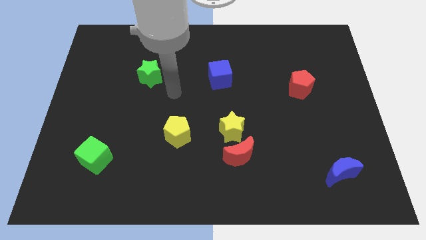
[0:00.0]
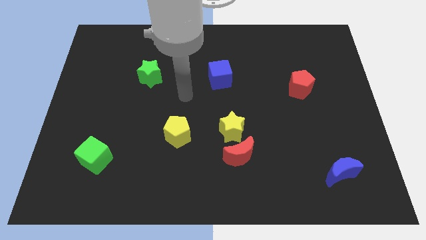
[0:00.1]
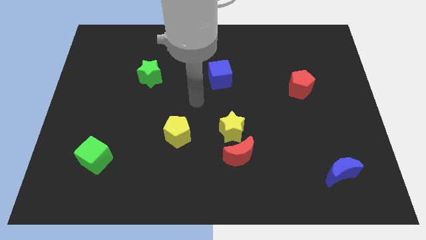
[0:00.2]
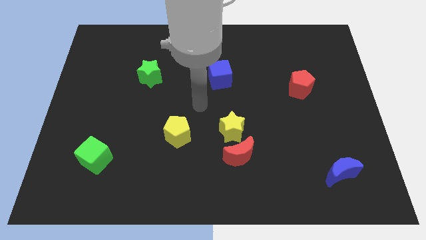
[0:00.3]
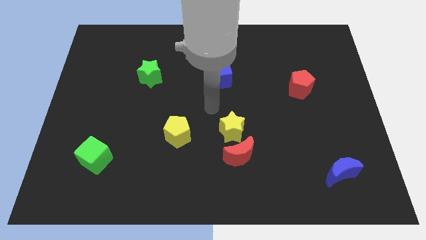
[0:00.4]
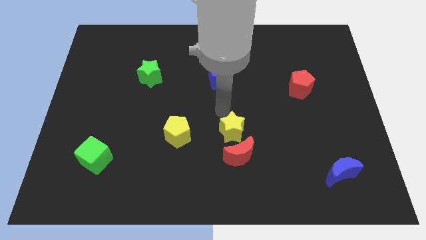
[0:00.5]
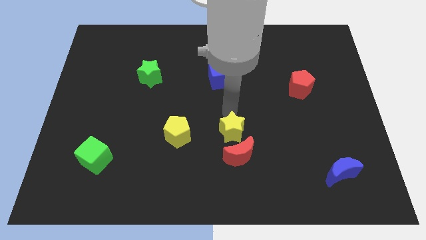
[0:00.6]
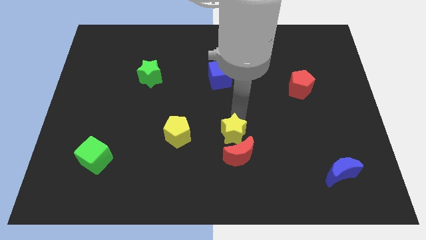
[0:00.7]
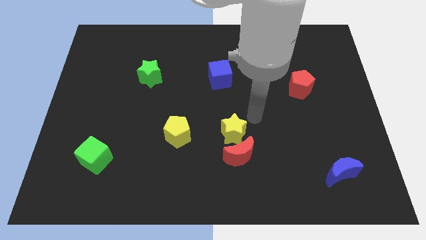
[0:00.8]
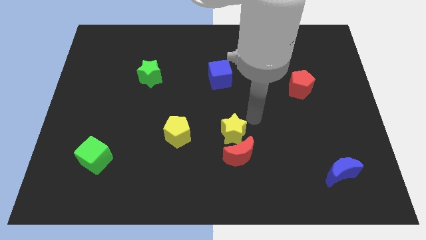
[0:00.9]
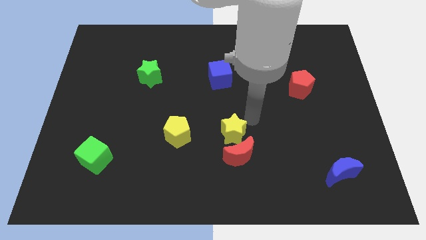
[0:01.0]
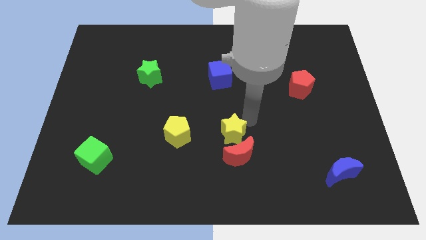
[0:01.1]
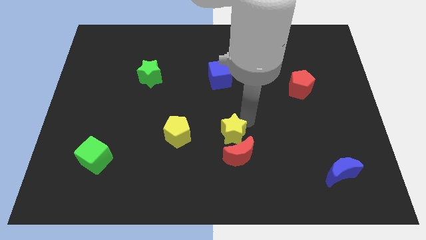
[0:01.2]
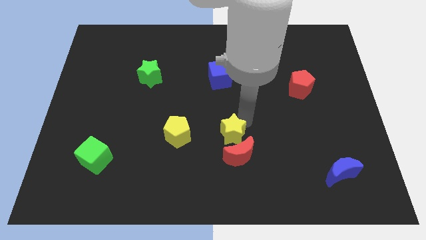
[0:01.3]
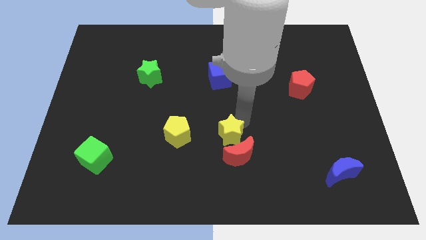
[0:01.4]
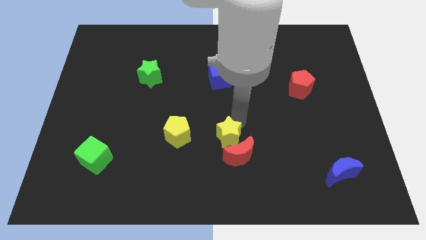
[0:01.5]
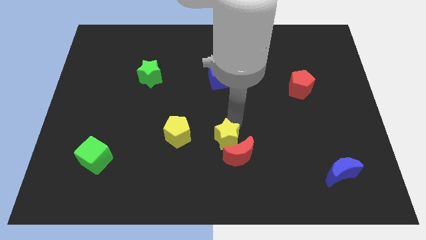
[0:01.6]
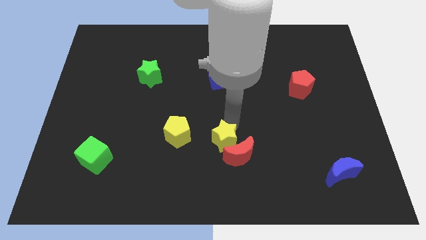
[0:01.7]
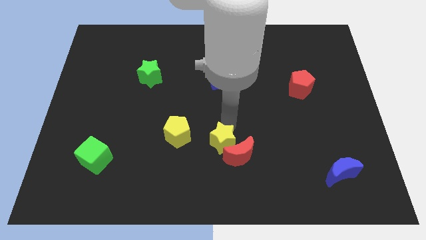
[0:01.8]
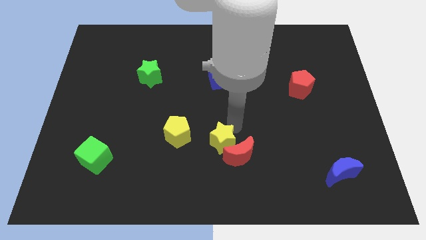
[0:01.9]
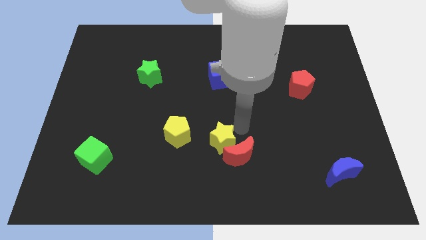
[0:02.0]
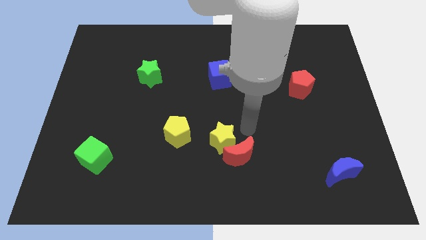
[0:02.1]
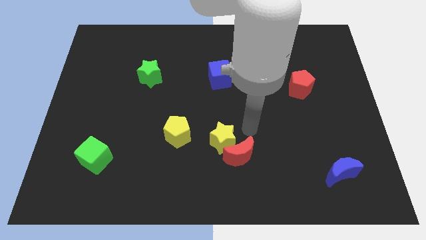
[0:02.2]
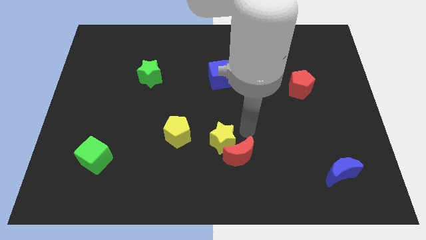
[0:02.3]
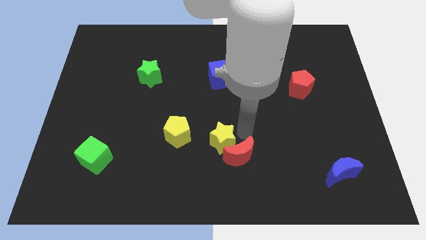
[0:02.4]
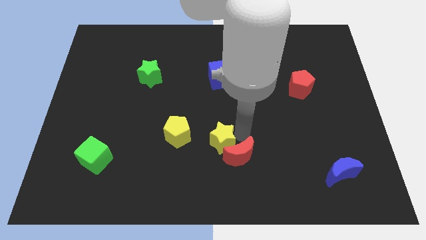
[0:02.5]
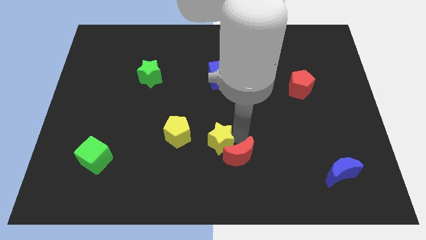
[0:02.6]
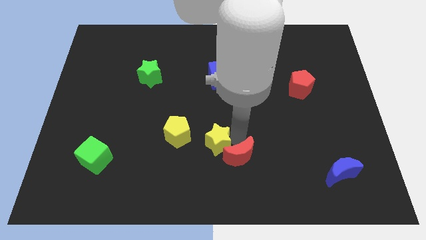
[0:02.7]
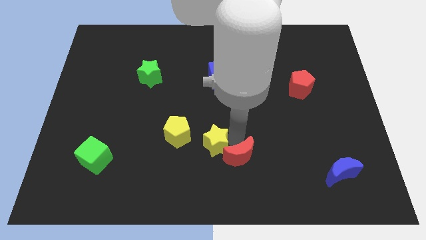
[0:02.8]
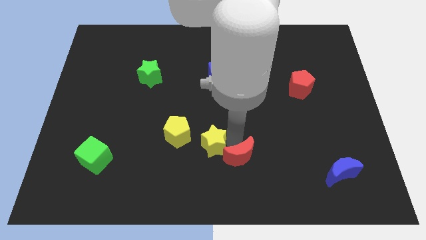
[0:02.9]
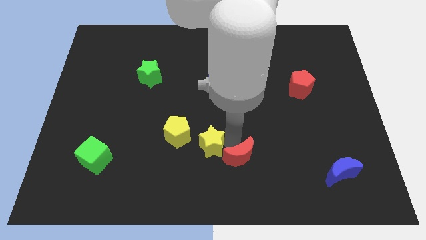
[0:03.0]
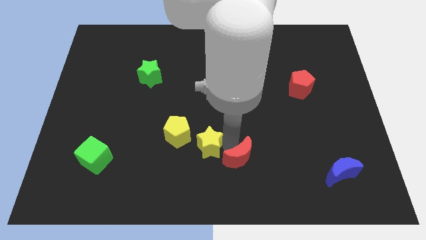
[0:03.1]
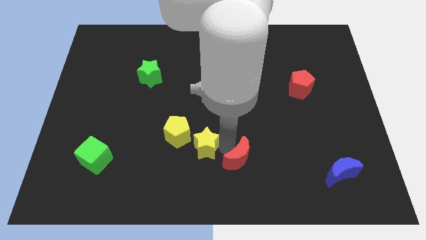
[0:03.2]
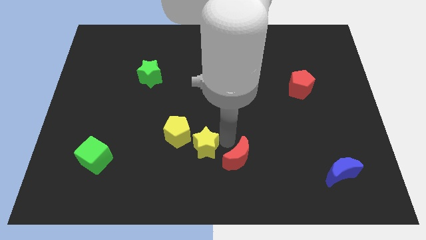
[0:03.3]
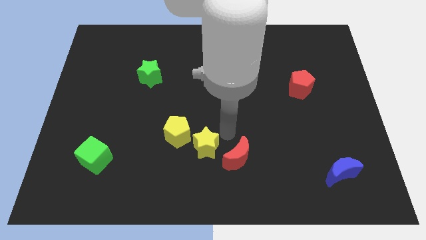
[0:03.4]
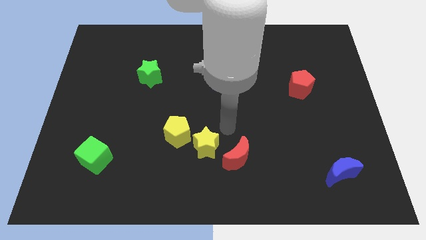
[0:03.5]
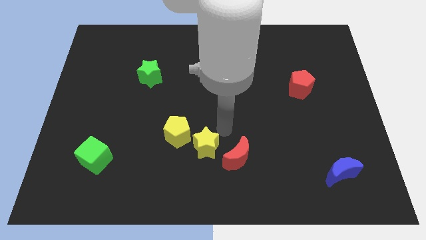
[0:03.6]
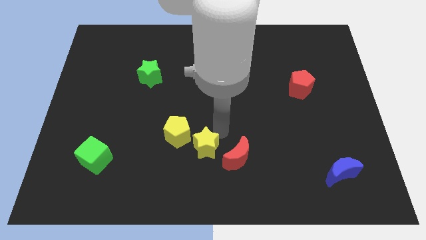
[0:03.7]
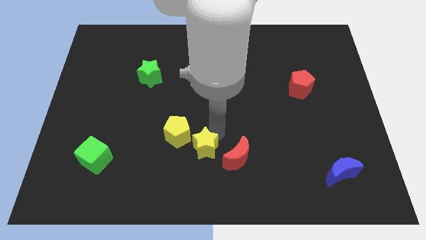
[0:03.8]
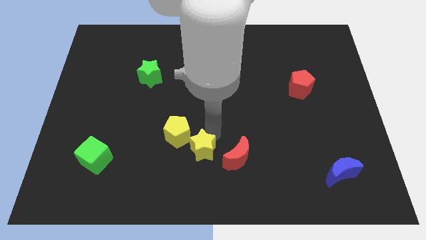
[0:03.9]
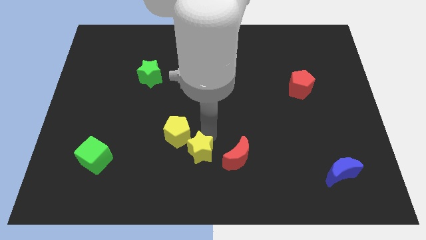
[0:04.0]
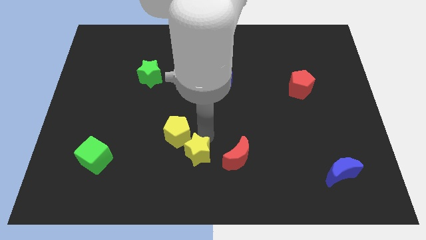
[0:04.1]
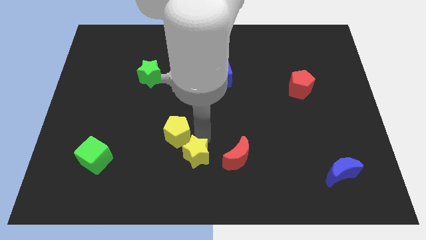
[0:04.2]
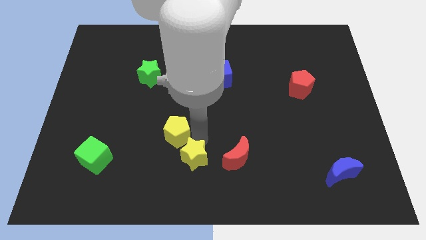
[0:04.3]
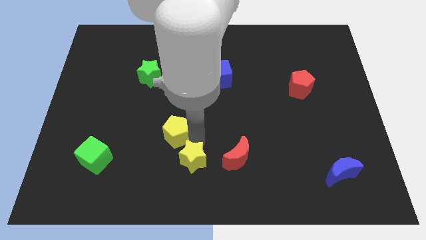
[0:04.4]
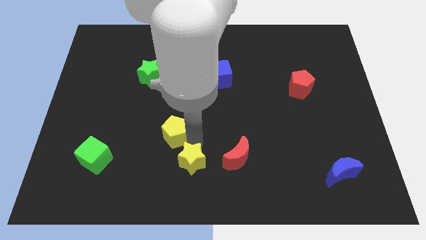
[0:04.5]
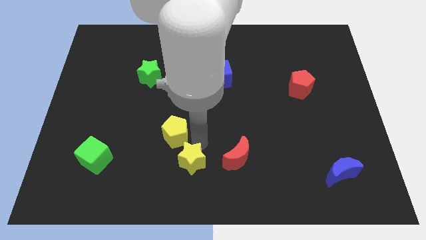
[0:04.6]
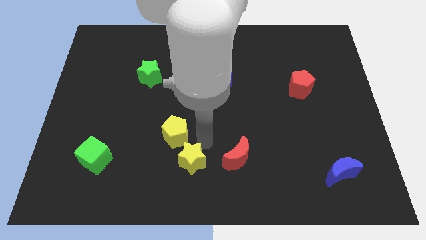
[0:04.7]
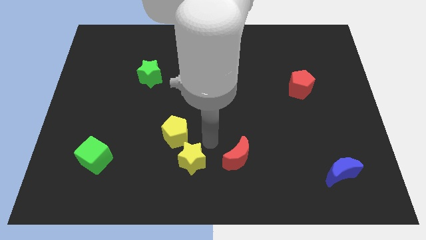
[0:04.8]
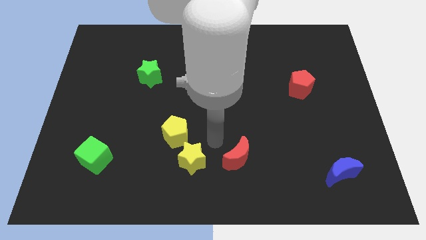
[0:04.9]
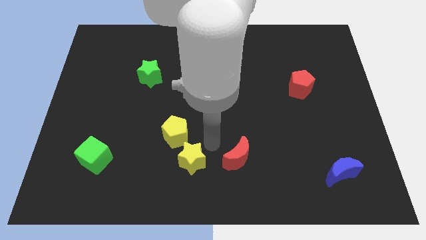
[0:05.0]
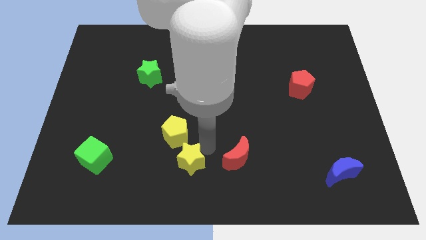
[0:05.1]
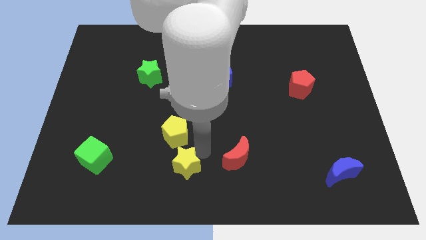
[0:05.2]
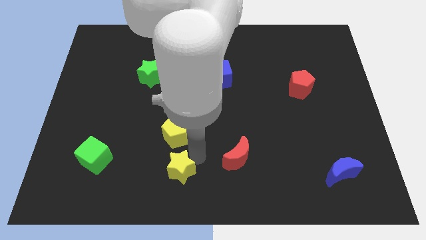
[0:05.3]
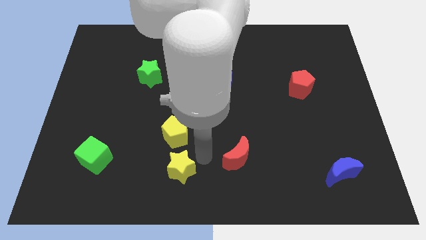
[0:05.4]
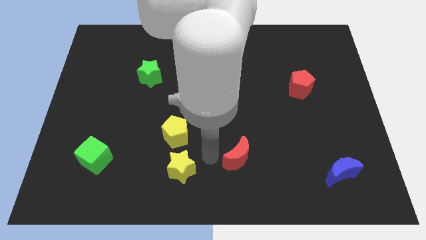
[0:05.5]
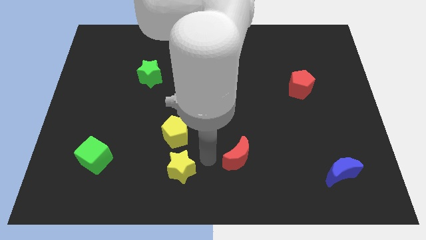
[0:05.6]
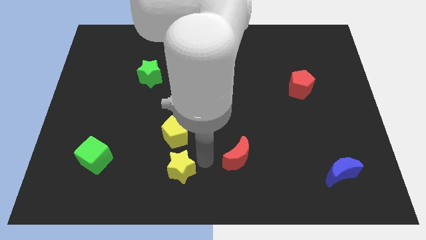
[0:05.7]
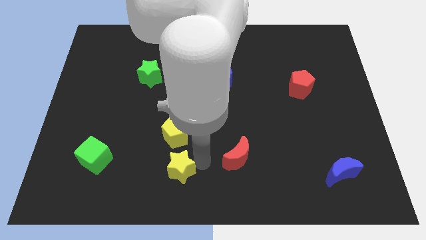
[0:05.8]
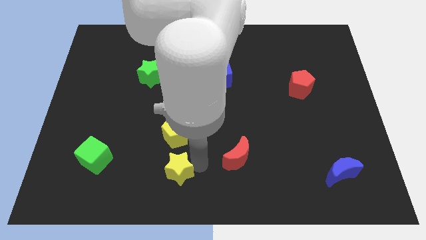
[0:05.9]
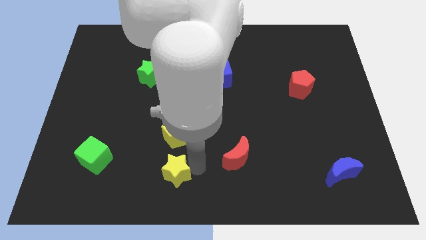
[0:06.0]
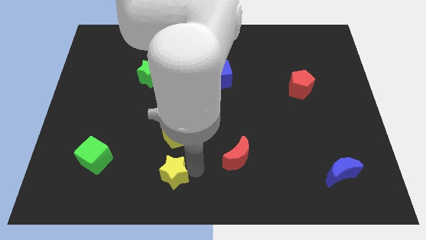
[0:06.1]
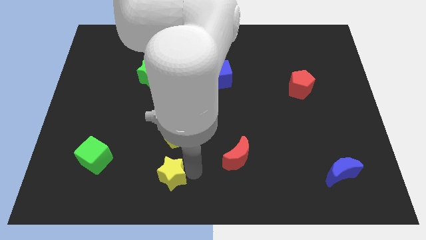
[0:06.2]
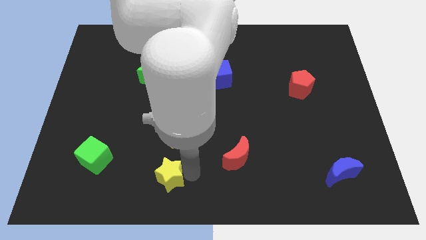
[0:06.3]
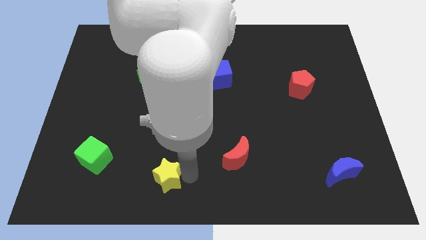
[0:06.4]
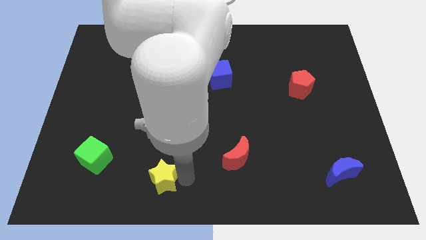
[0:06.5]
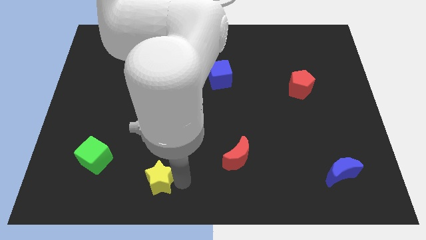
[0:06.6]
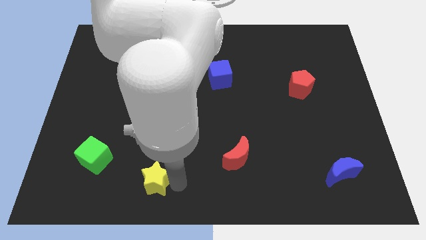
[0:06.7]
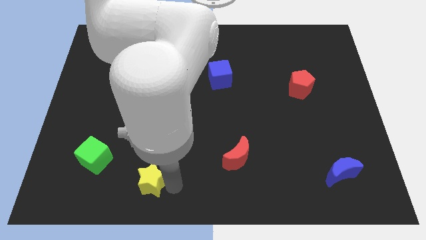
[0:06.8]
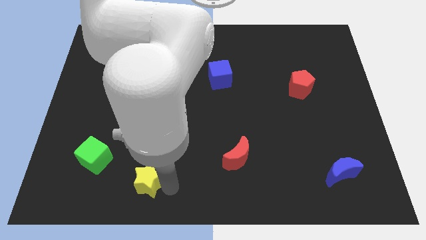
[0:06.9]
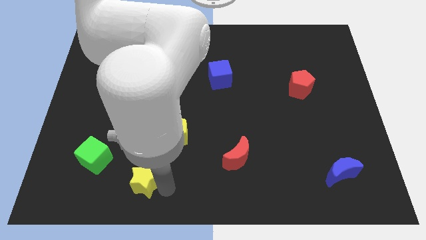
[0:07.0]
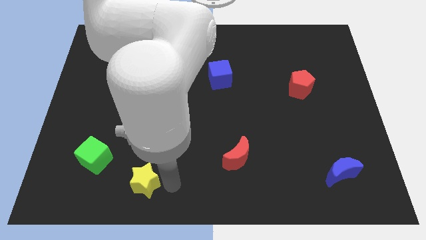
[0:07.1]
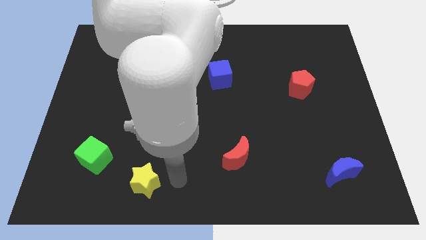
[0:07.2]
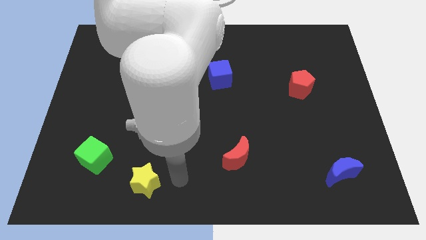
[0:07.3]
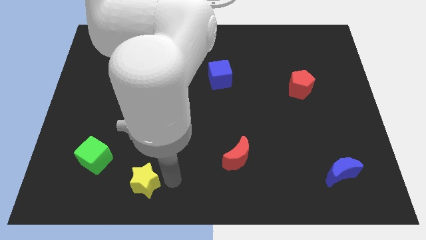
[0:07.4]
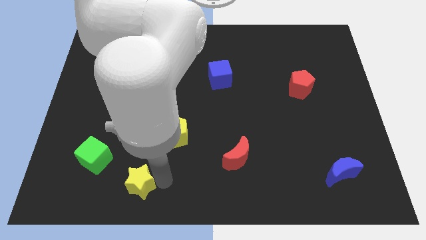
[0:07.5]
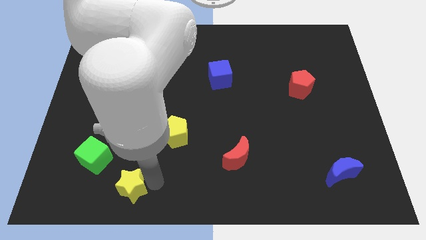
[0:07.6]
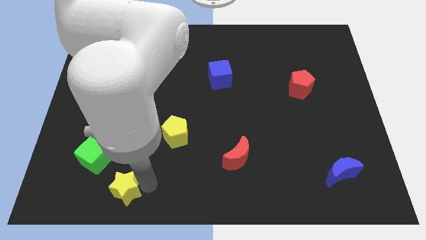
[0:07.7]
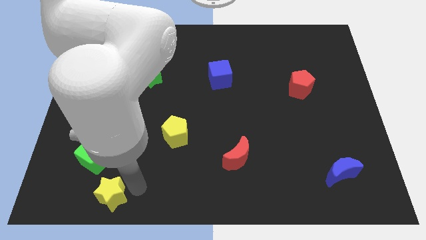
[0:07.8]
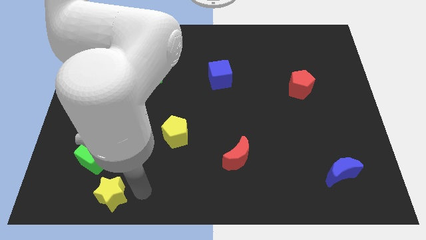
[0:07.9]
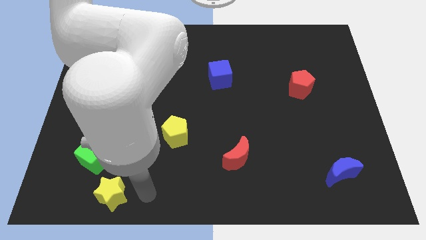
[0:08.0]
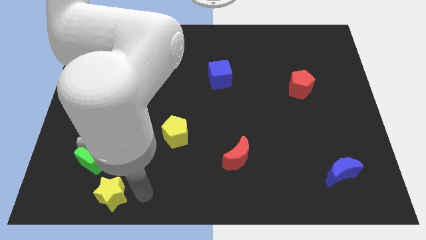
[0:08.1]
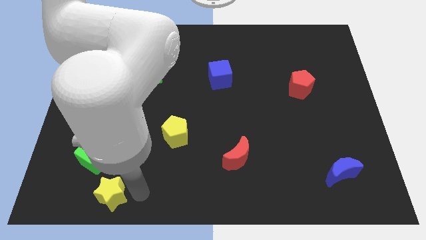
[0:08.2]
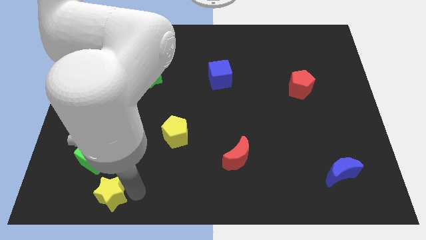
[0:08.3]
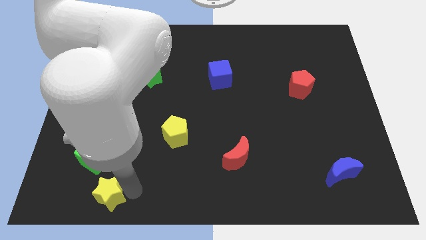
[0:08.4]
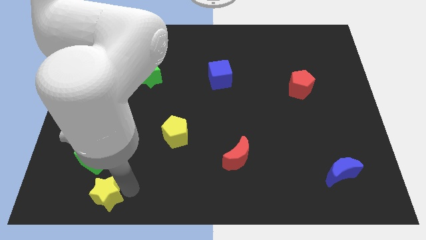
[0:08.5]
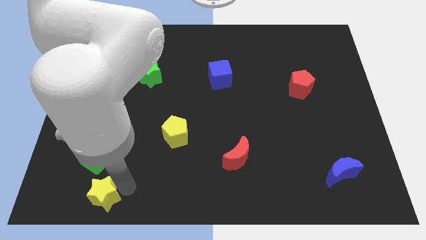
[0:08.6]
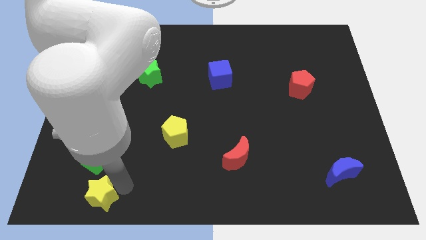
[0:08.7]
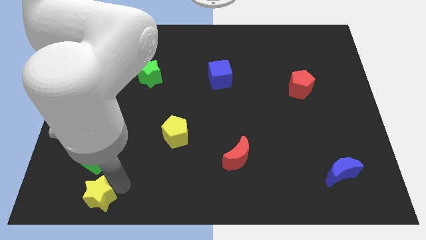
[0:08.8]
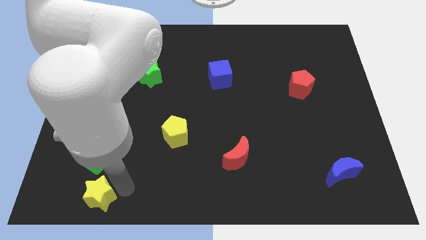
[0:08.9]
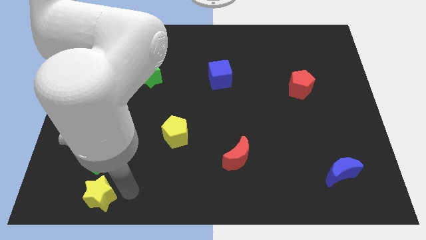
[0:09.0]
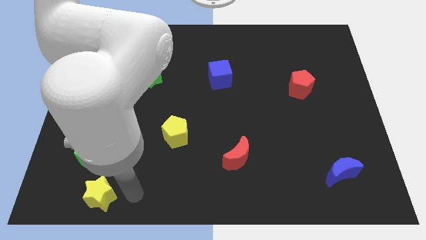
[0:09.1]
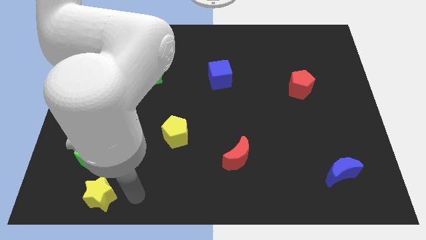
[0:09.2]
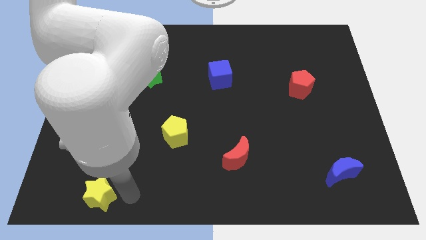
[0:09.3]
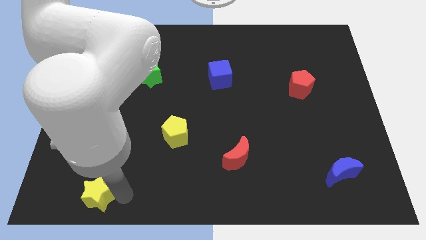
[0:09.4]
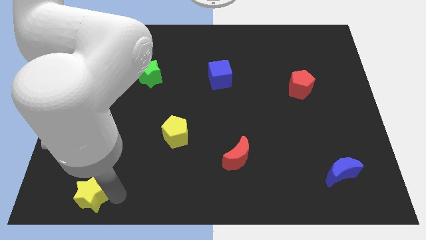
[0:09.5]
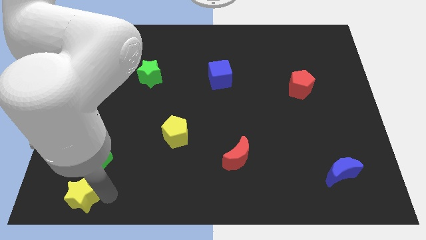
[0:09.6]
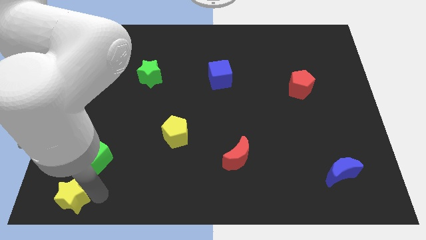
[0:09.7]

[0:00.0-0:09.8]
move the yellow star to the bottom left of the board
